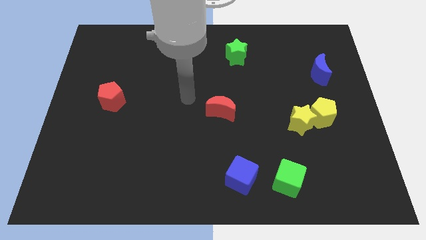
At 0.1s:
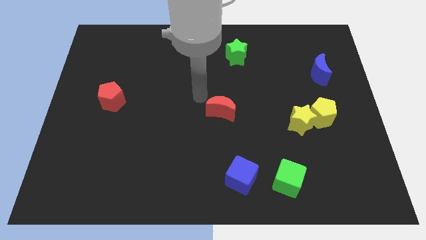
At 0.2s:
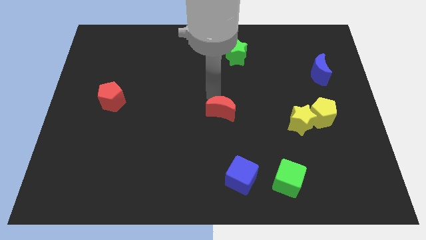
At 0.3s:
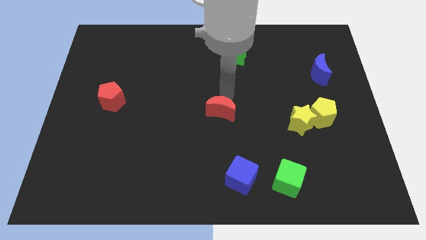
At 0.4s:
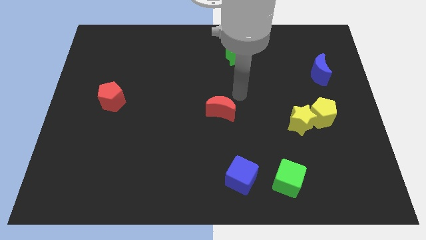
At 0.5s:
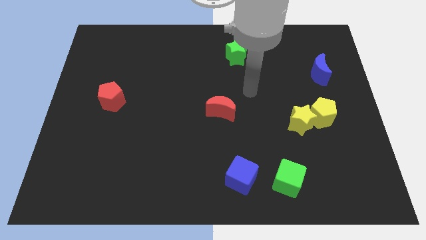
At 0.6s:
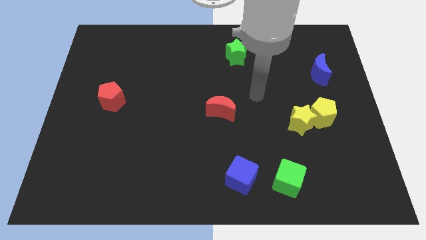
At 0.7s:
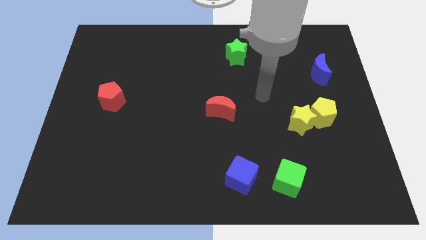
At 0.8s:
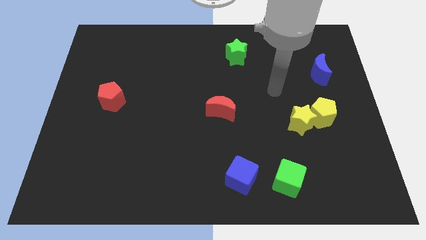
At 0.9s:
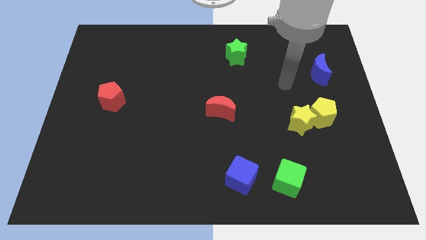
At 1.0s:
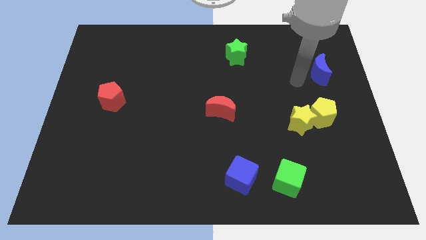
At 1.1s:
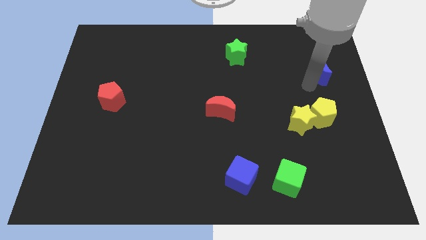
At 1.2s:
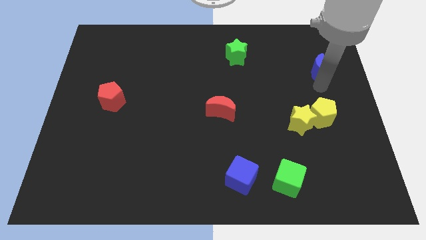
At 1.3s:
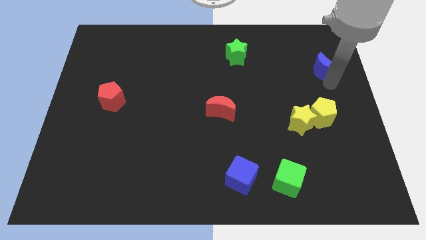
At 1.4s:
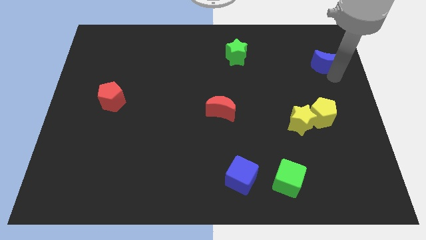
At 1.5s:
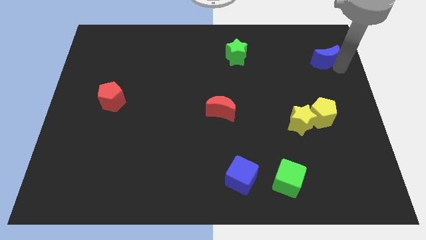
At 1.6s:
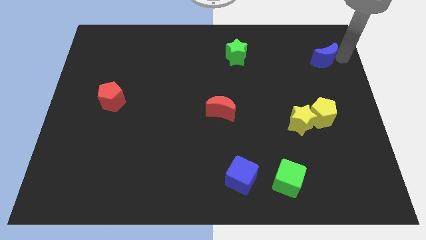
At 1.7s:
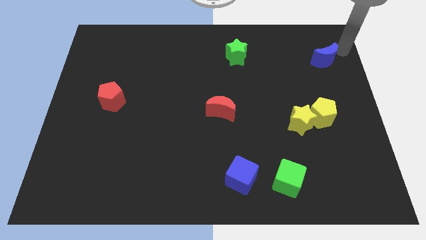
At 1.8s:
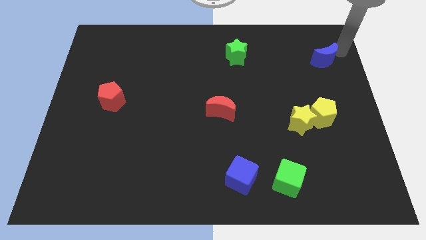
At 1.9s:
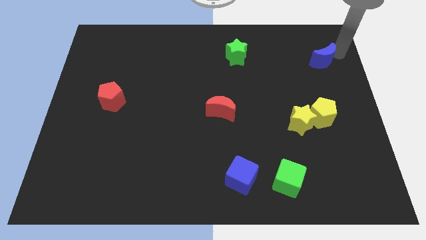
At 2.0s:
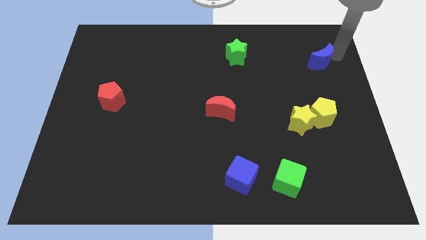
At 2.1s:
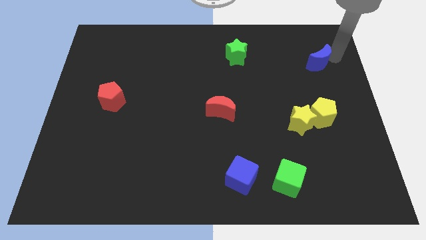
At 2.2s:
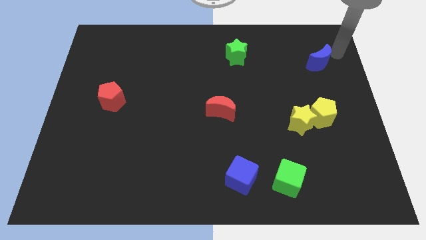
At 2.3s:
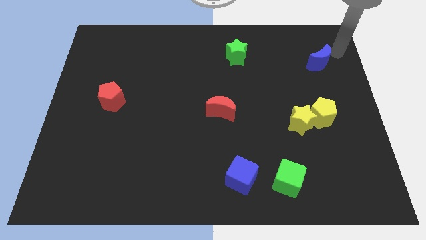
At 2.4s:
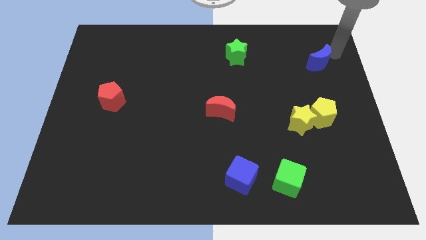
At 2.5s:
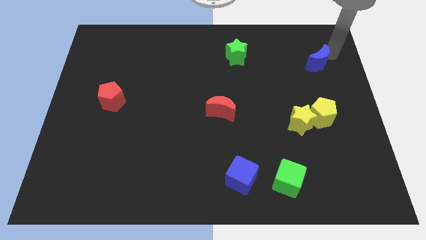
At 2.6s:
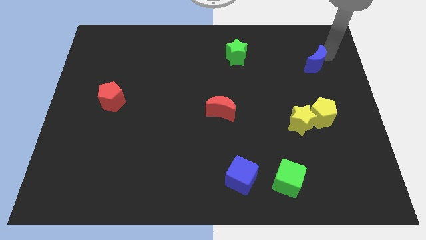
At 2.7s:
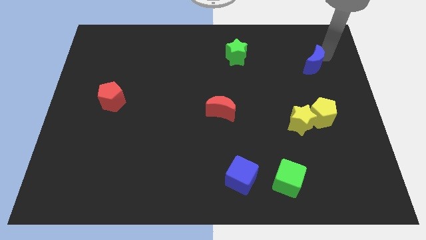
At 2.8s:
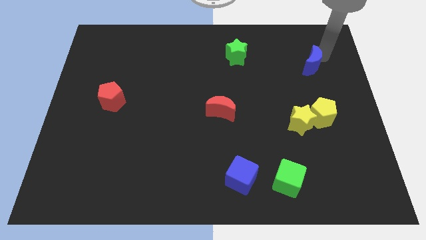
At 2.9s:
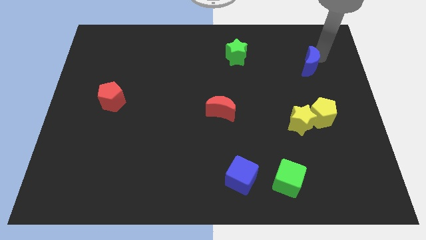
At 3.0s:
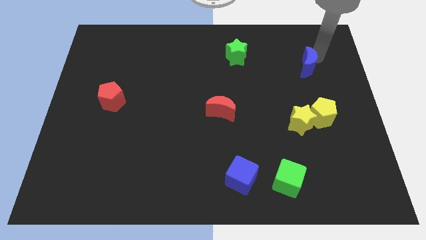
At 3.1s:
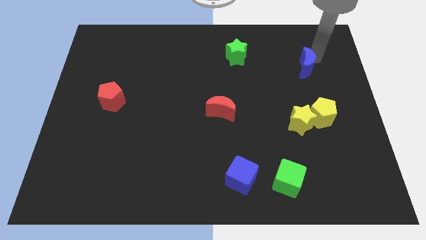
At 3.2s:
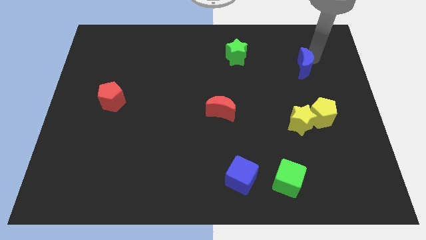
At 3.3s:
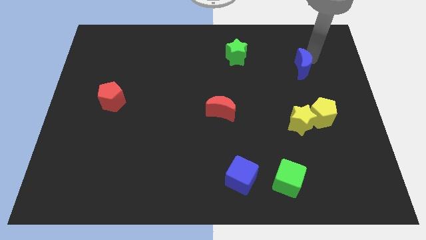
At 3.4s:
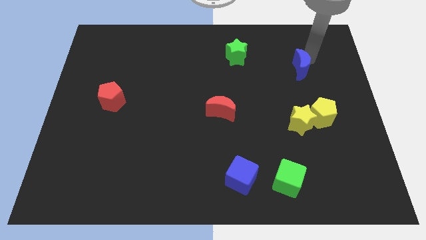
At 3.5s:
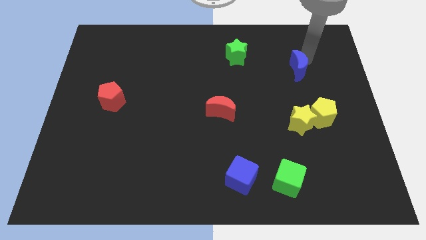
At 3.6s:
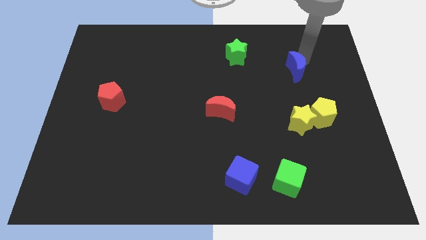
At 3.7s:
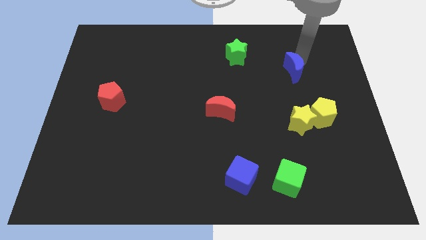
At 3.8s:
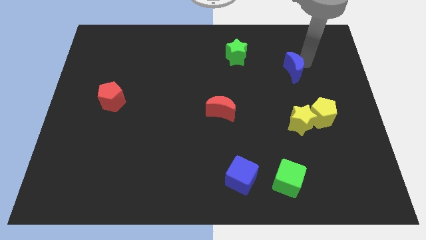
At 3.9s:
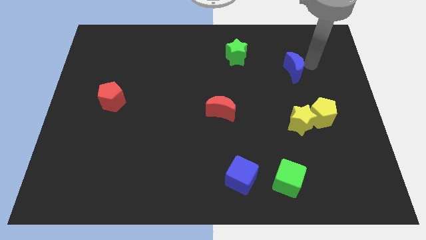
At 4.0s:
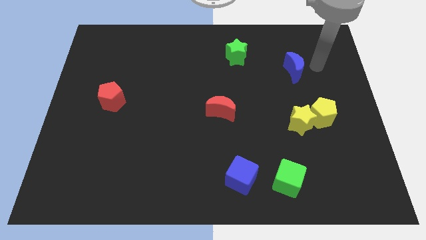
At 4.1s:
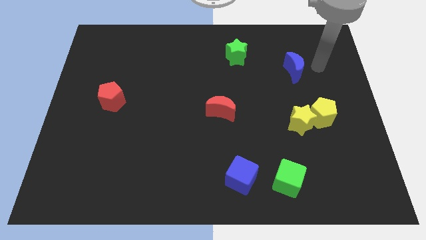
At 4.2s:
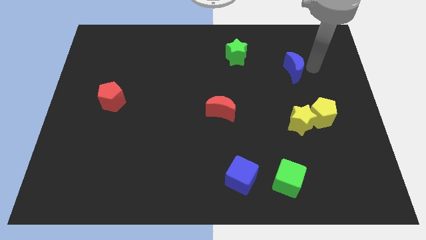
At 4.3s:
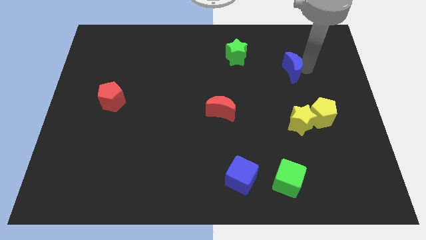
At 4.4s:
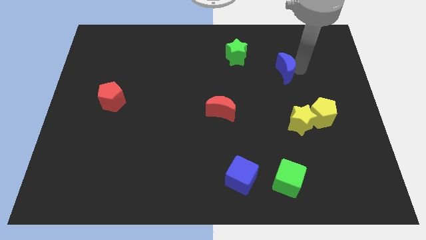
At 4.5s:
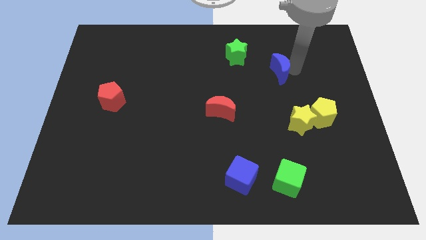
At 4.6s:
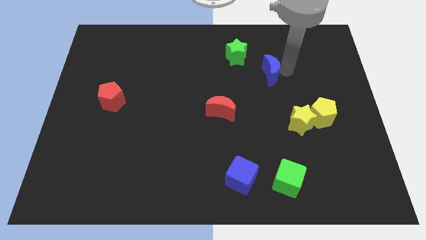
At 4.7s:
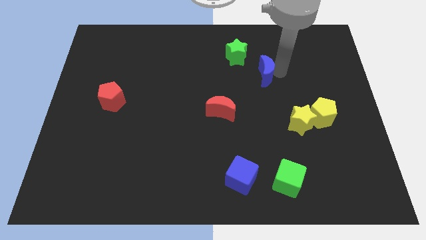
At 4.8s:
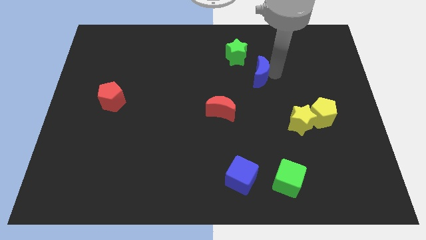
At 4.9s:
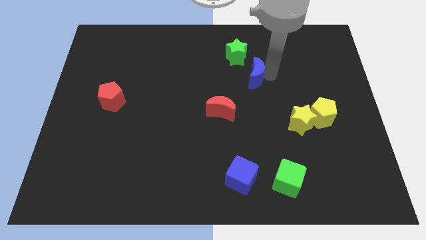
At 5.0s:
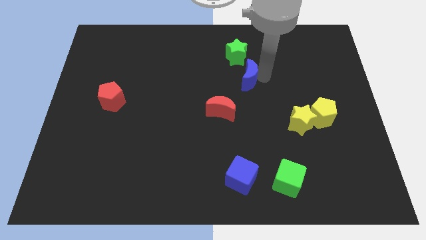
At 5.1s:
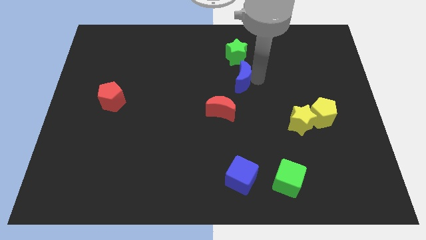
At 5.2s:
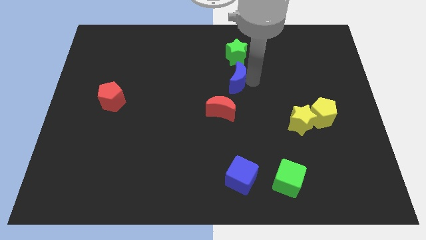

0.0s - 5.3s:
move the blue moon to the left

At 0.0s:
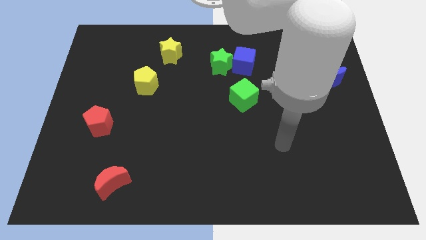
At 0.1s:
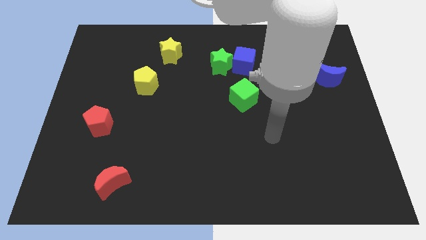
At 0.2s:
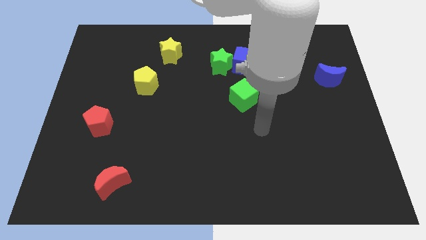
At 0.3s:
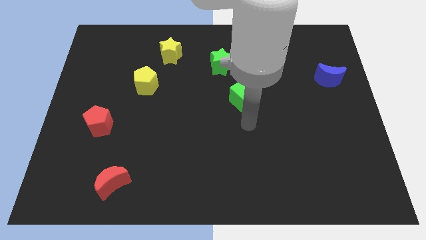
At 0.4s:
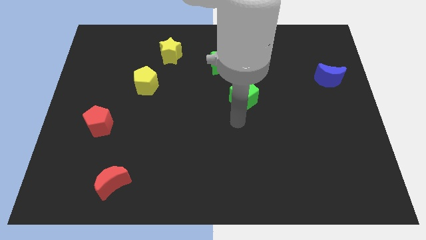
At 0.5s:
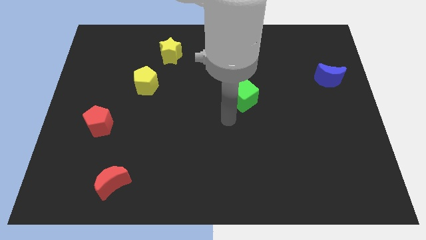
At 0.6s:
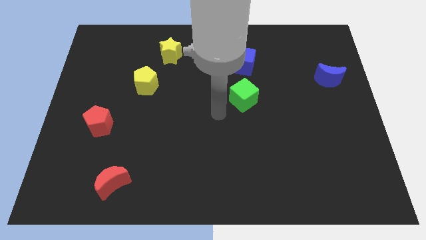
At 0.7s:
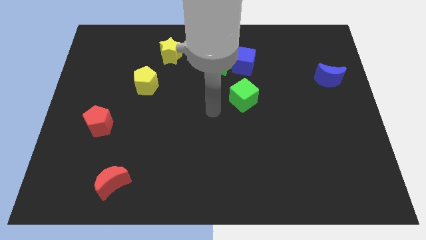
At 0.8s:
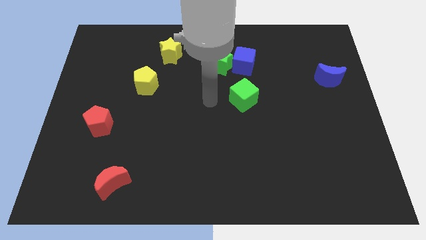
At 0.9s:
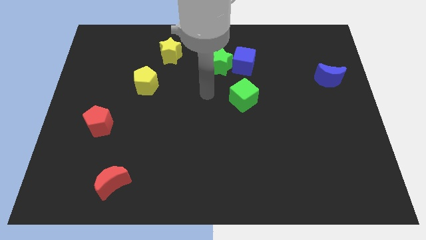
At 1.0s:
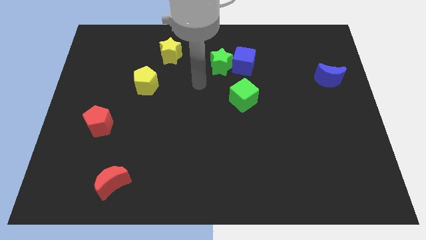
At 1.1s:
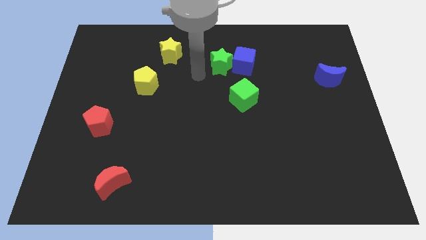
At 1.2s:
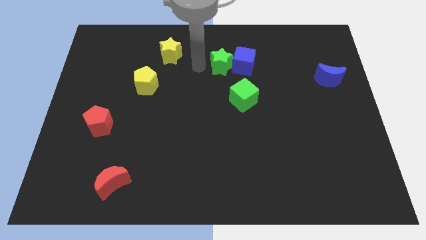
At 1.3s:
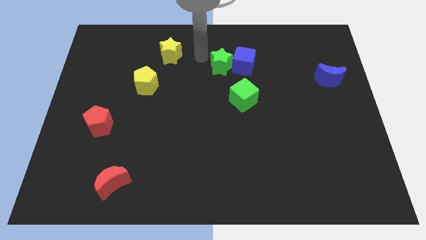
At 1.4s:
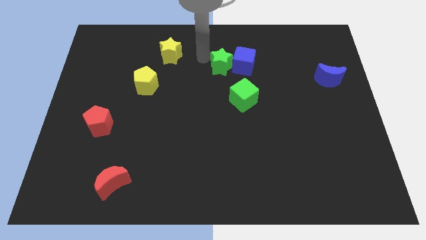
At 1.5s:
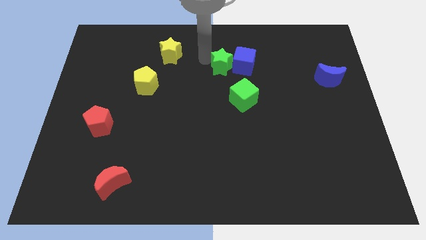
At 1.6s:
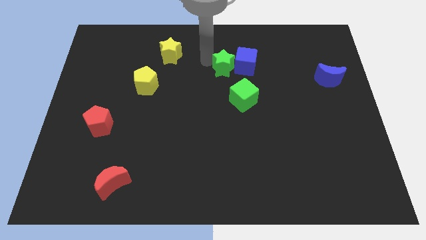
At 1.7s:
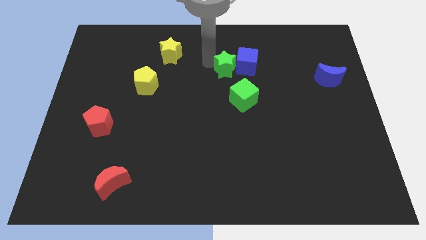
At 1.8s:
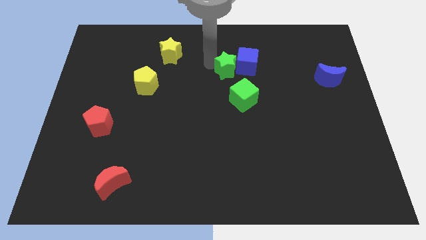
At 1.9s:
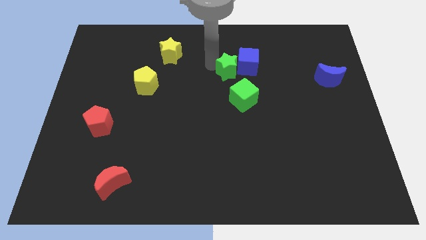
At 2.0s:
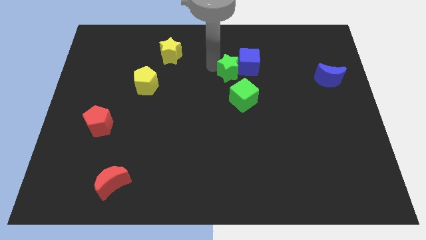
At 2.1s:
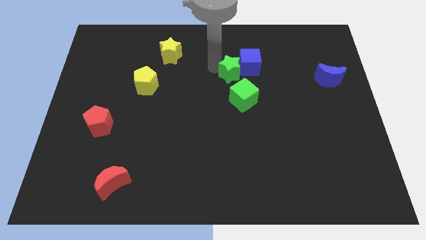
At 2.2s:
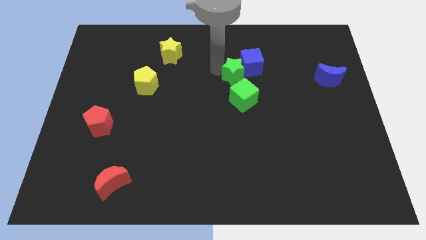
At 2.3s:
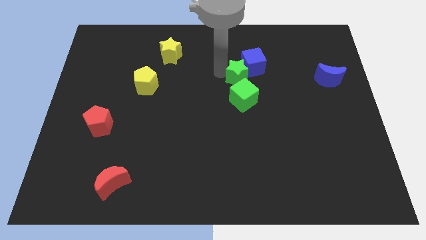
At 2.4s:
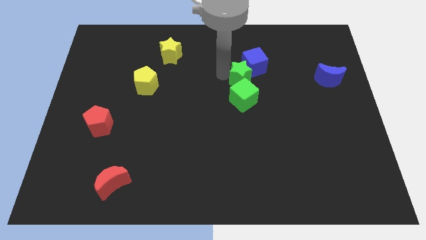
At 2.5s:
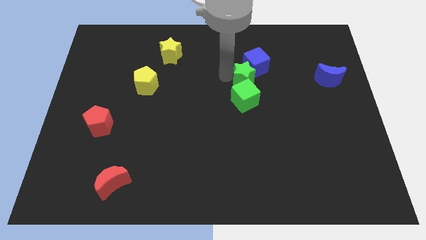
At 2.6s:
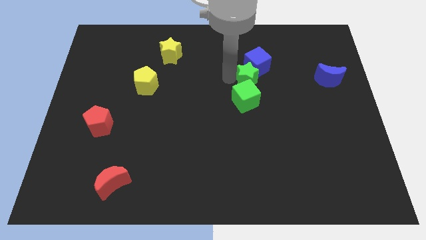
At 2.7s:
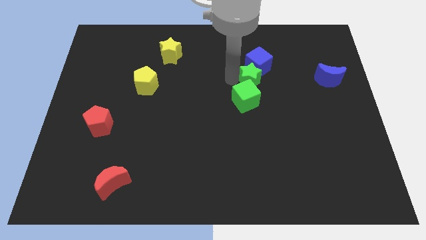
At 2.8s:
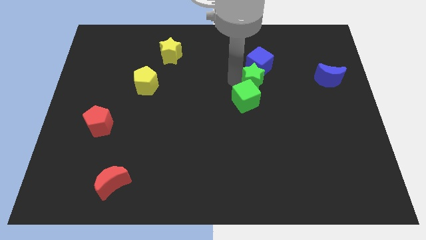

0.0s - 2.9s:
slide the green star to the right a little
